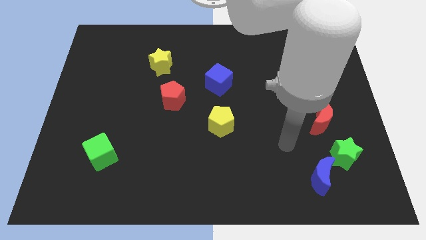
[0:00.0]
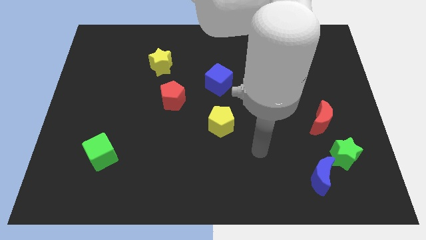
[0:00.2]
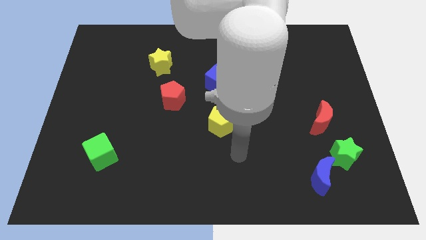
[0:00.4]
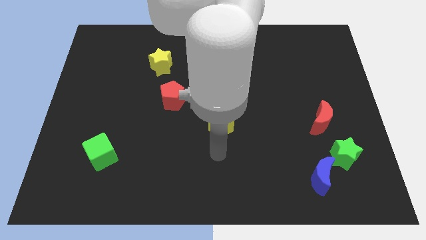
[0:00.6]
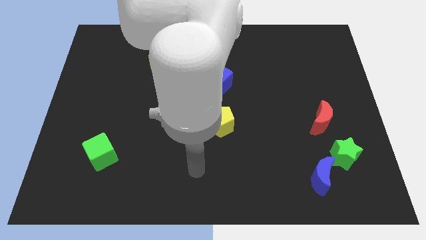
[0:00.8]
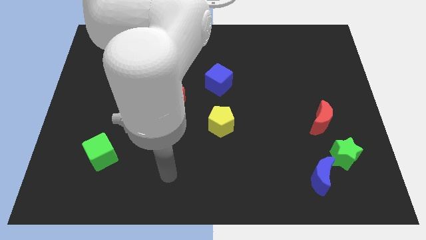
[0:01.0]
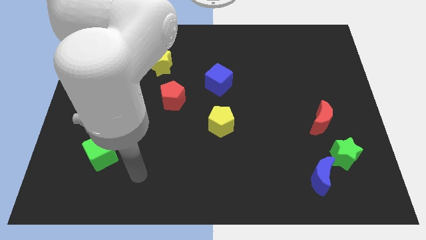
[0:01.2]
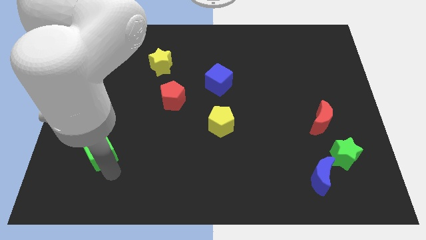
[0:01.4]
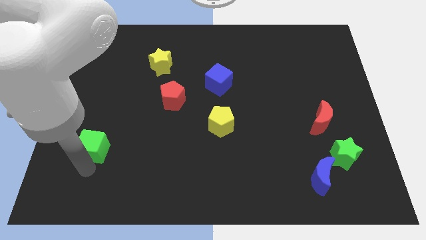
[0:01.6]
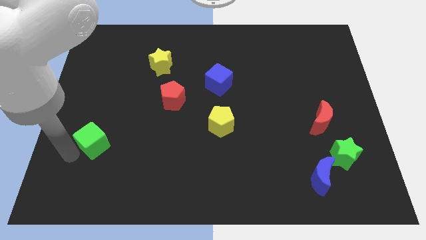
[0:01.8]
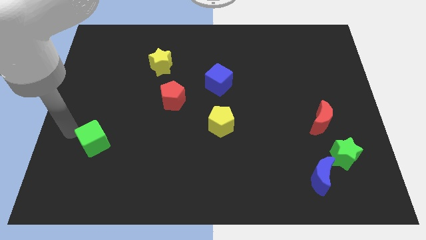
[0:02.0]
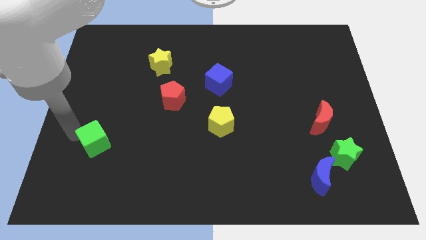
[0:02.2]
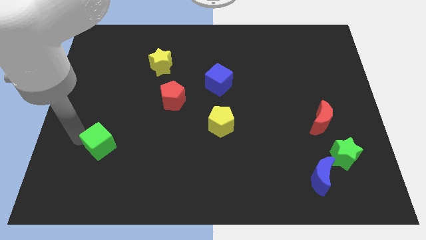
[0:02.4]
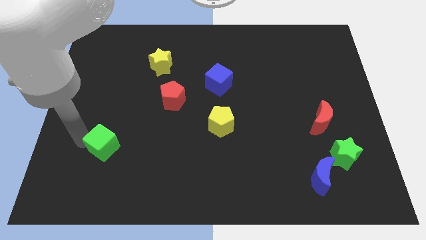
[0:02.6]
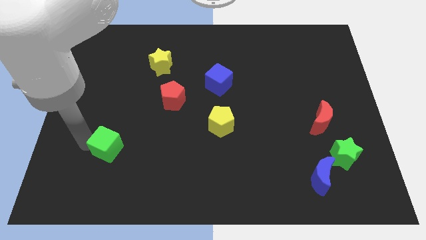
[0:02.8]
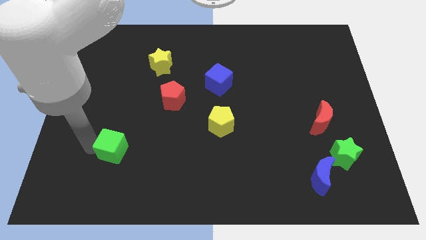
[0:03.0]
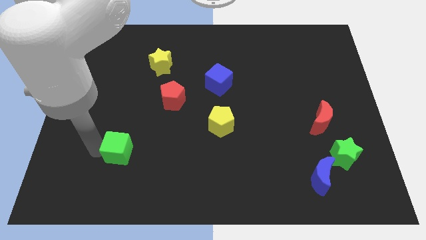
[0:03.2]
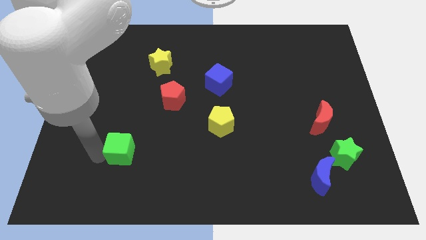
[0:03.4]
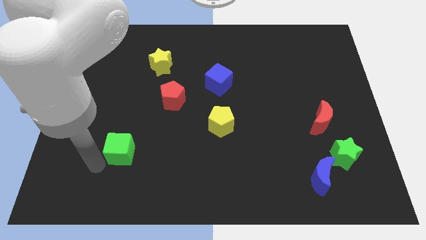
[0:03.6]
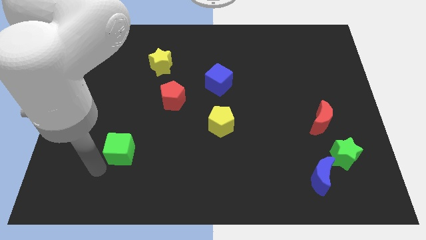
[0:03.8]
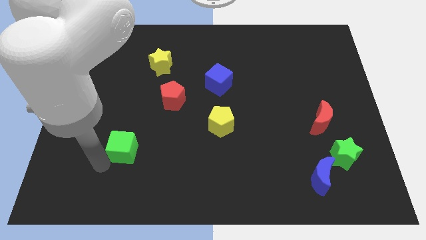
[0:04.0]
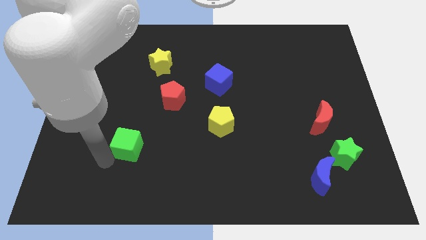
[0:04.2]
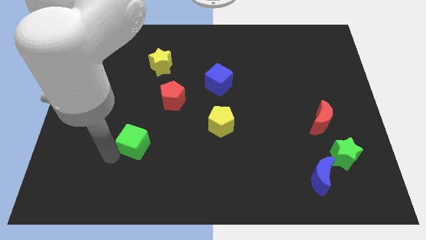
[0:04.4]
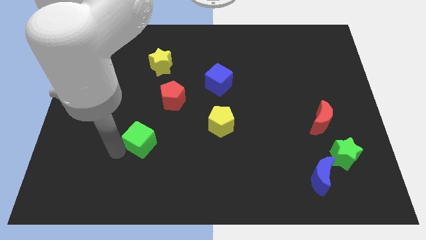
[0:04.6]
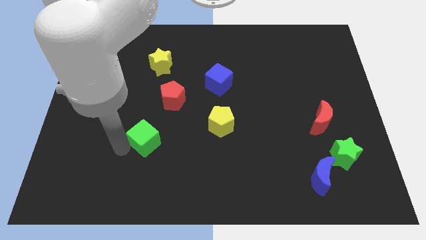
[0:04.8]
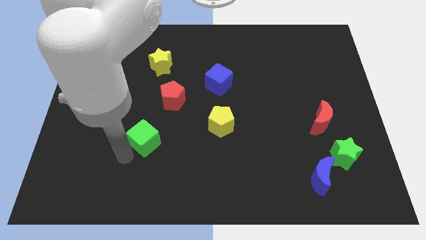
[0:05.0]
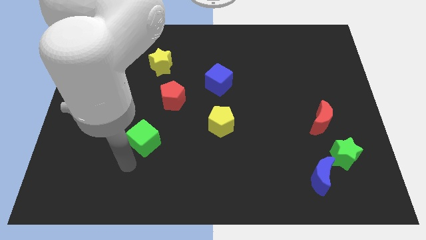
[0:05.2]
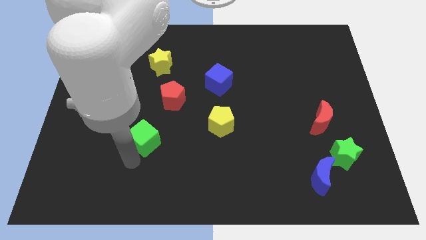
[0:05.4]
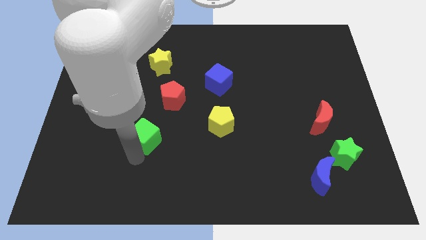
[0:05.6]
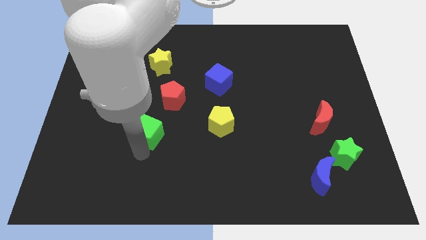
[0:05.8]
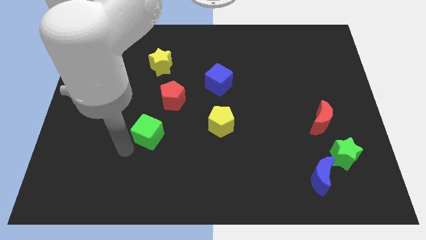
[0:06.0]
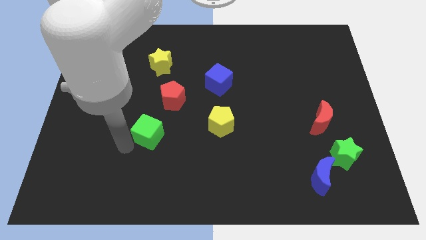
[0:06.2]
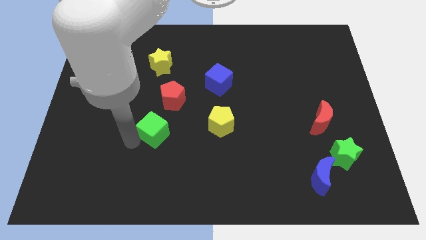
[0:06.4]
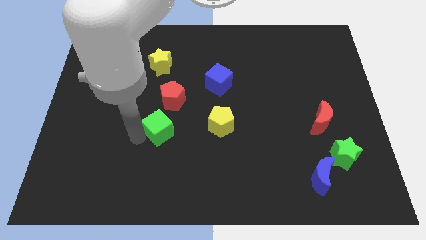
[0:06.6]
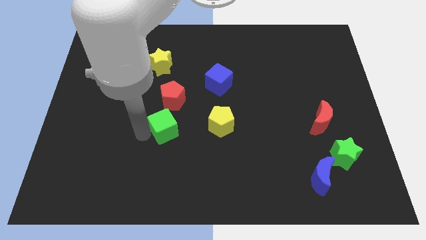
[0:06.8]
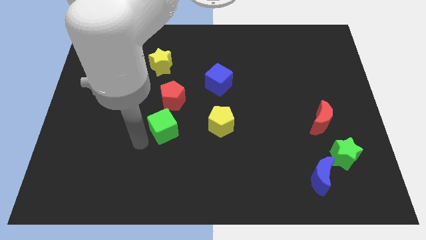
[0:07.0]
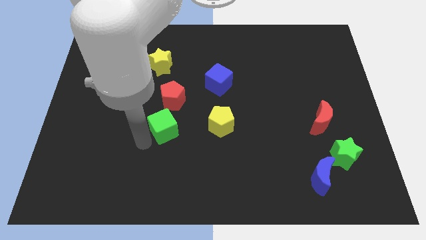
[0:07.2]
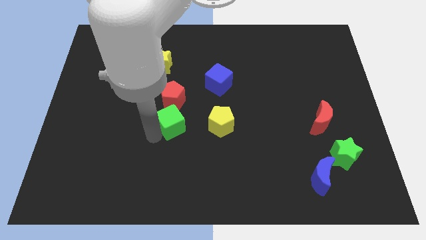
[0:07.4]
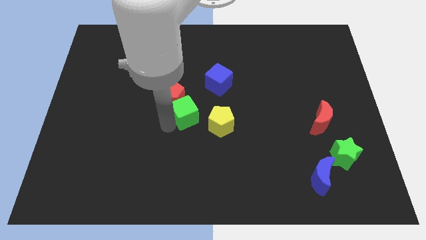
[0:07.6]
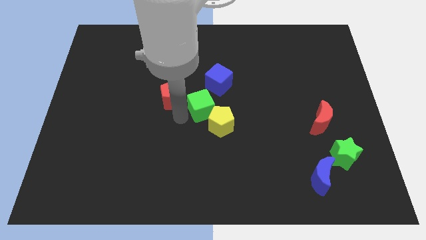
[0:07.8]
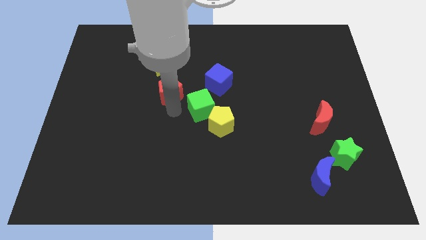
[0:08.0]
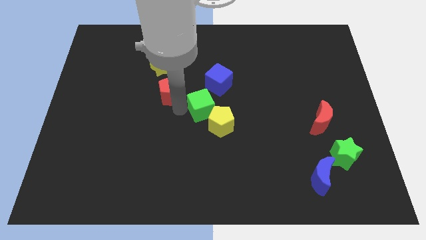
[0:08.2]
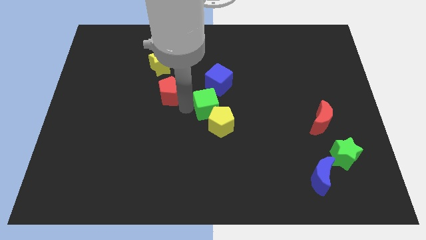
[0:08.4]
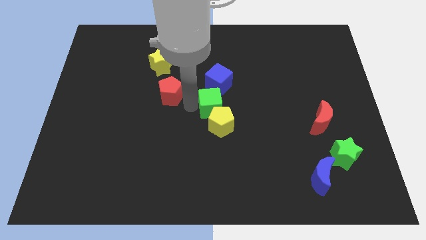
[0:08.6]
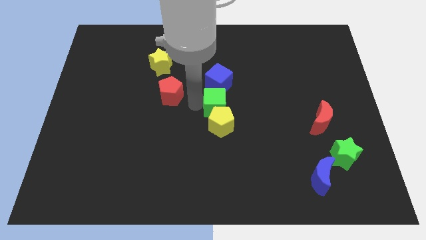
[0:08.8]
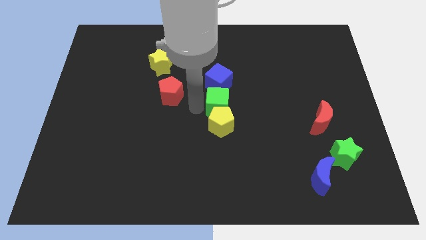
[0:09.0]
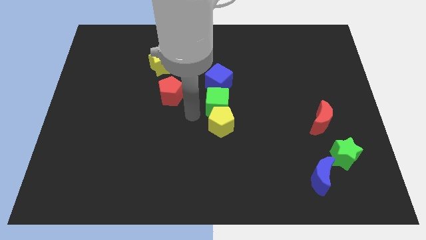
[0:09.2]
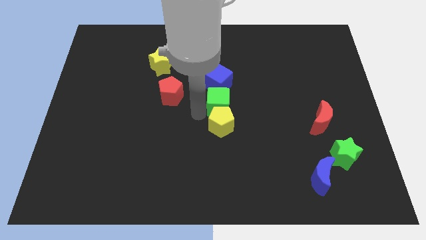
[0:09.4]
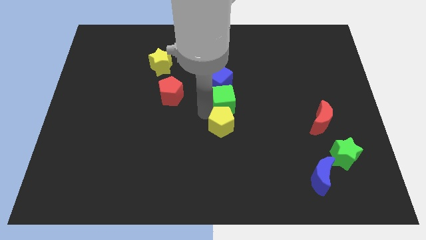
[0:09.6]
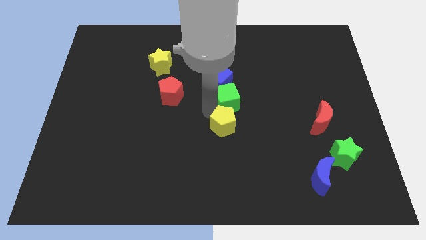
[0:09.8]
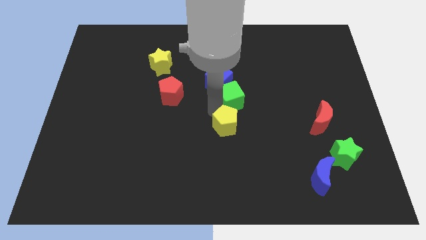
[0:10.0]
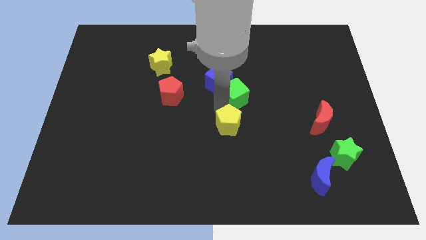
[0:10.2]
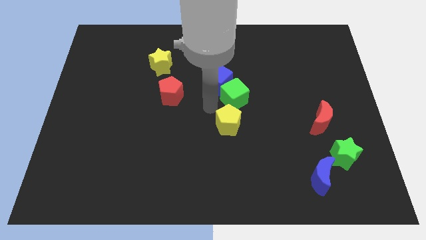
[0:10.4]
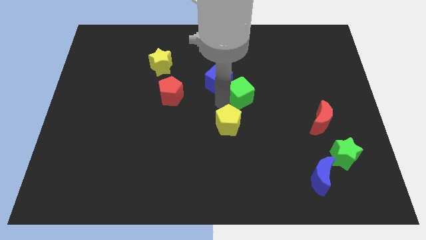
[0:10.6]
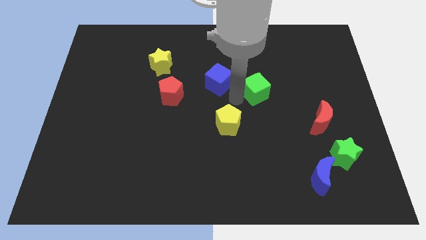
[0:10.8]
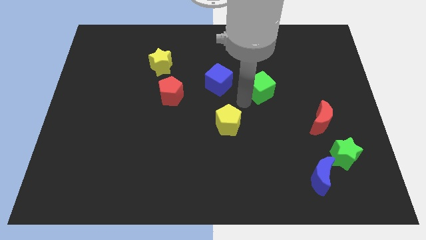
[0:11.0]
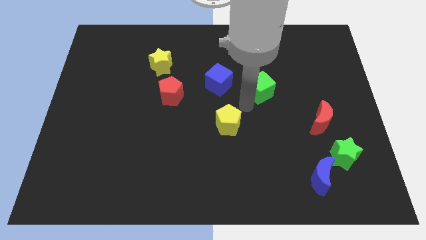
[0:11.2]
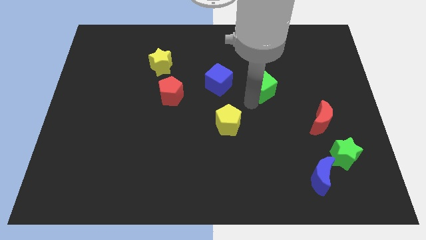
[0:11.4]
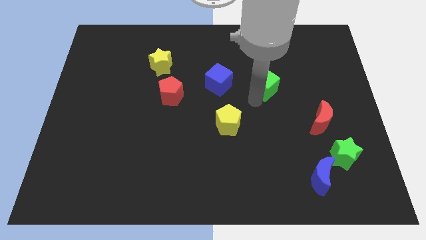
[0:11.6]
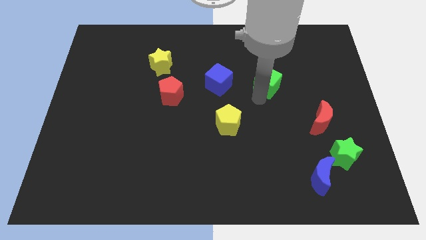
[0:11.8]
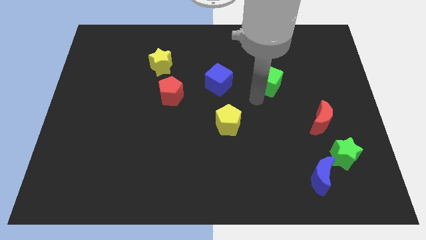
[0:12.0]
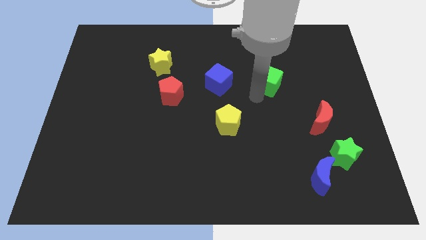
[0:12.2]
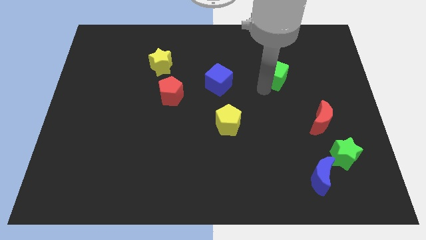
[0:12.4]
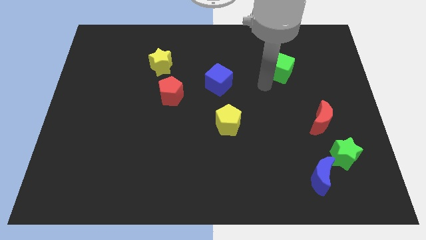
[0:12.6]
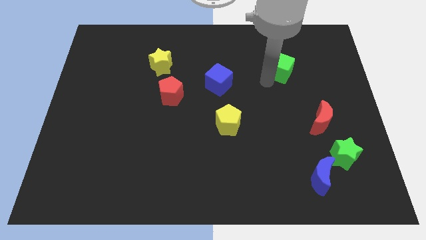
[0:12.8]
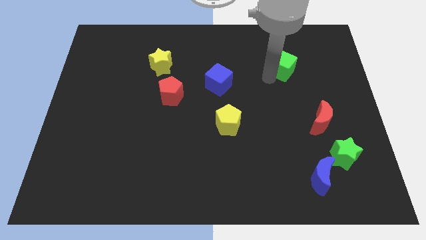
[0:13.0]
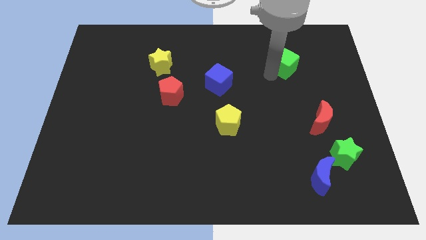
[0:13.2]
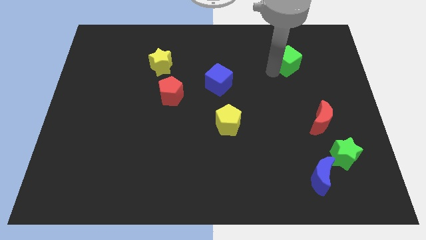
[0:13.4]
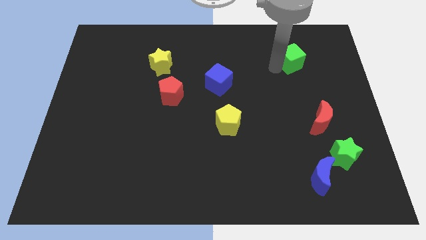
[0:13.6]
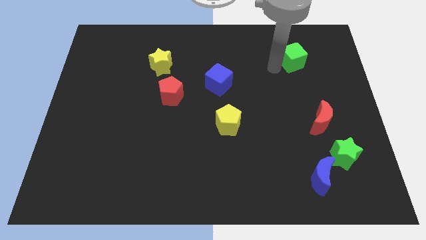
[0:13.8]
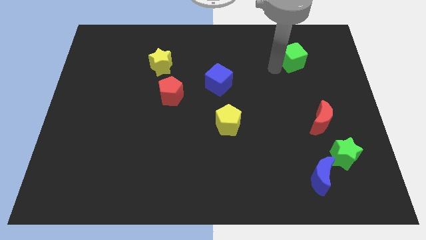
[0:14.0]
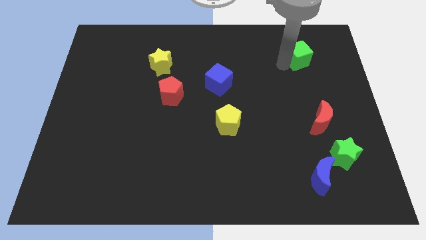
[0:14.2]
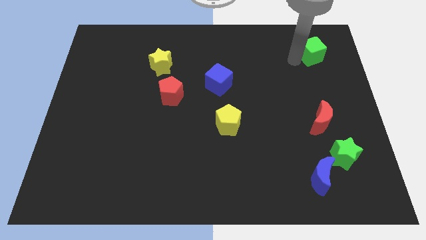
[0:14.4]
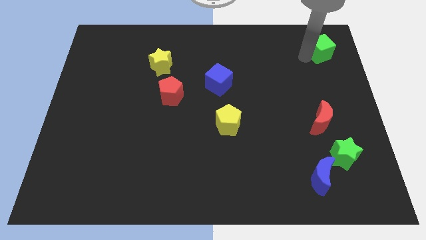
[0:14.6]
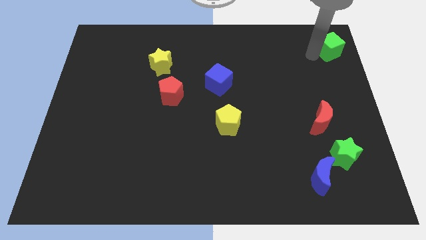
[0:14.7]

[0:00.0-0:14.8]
push the green cube to the top right
